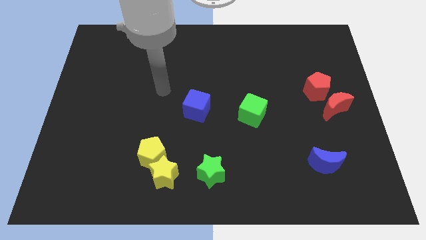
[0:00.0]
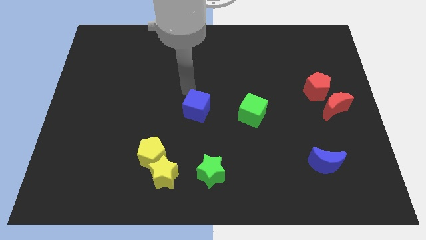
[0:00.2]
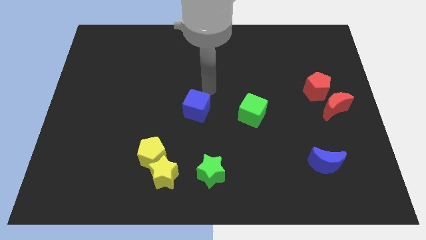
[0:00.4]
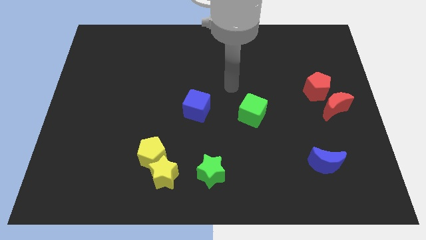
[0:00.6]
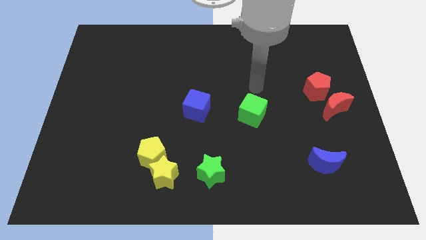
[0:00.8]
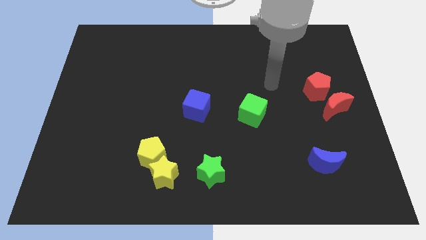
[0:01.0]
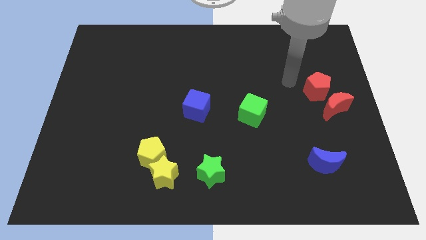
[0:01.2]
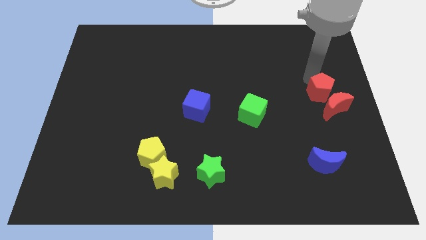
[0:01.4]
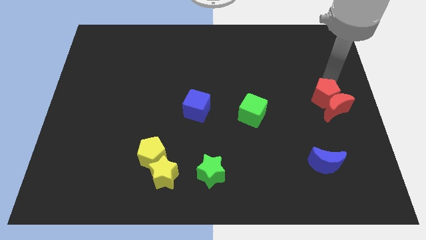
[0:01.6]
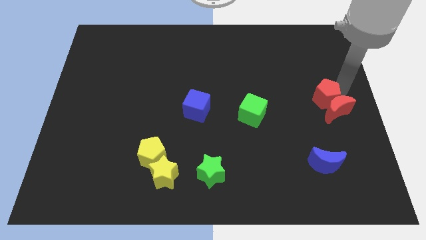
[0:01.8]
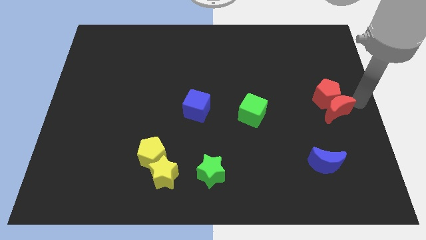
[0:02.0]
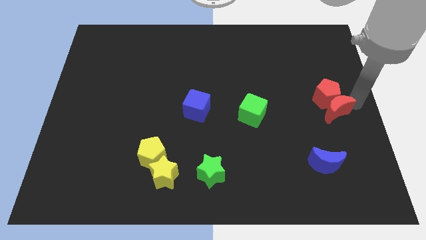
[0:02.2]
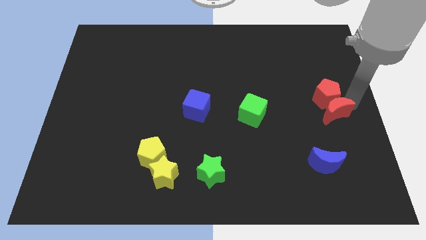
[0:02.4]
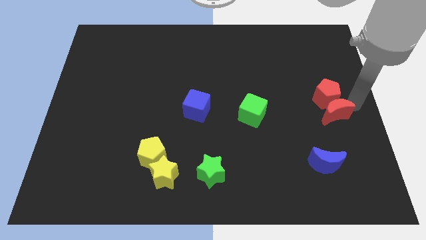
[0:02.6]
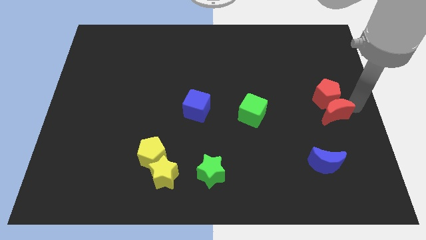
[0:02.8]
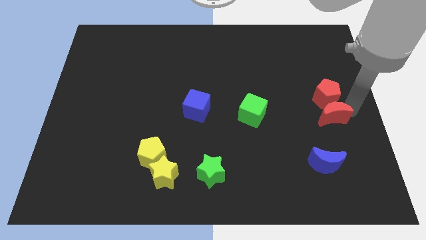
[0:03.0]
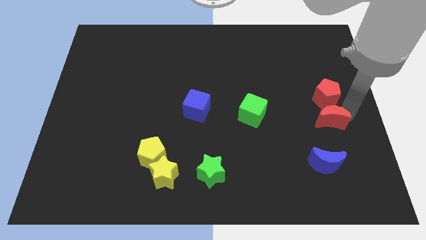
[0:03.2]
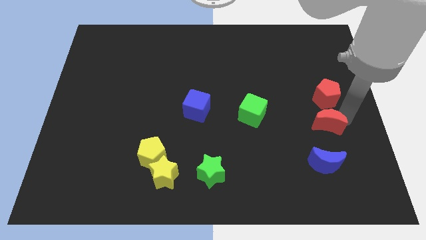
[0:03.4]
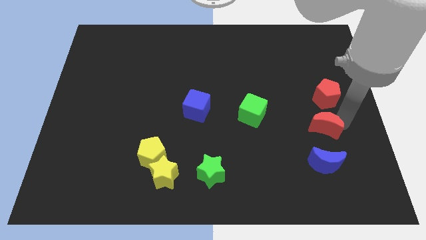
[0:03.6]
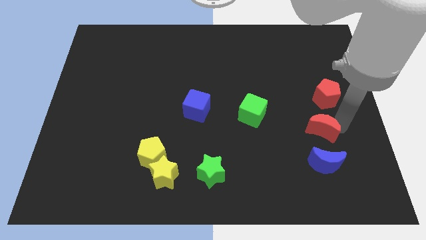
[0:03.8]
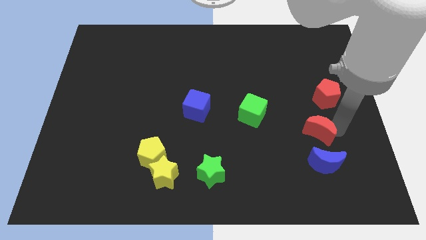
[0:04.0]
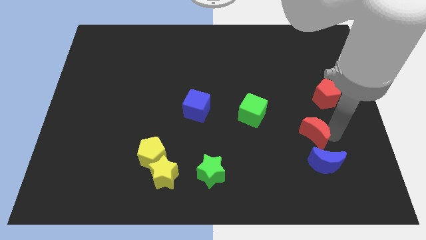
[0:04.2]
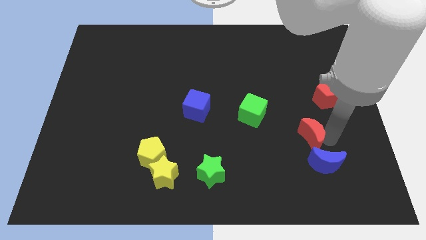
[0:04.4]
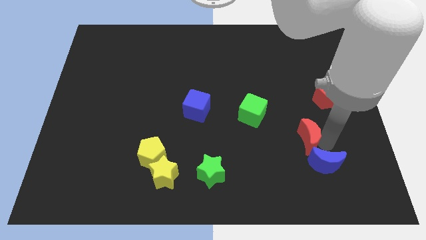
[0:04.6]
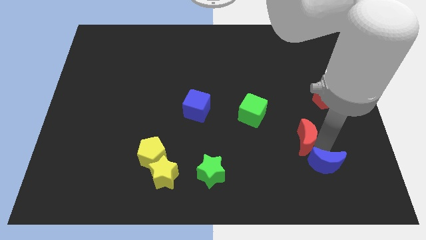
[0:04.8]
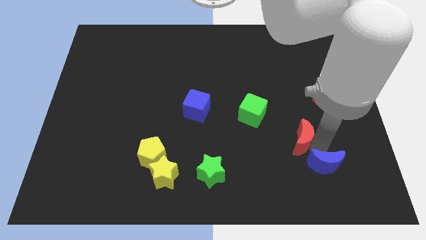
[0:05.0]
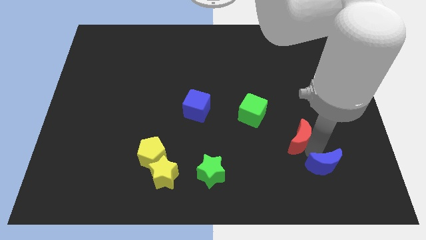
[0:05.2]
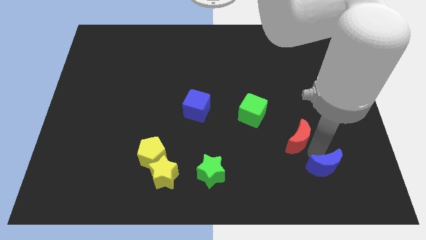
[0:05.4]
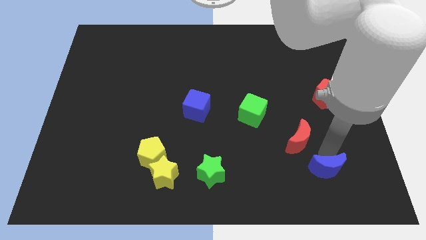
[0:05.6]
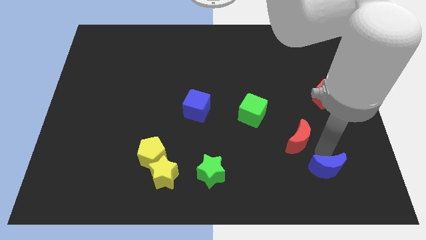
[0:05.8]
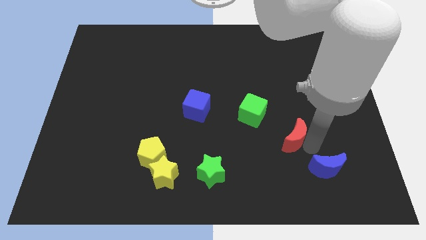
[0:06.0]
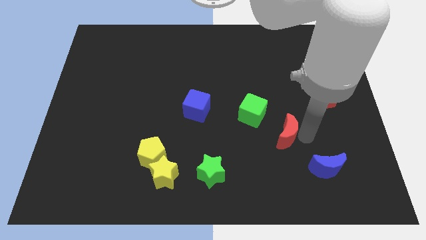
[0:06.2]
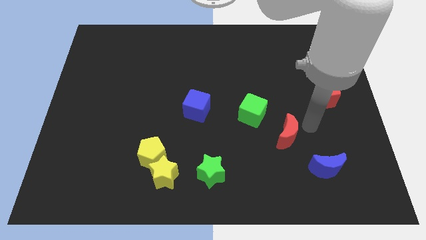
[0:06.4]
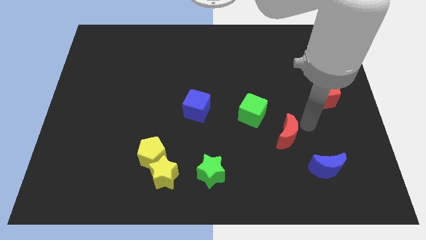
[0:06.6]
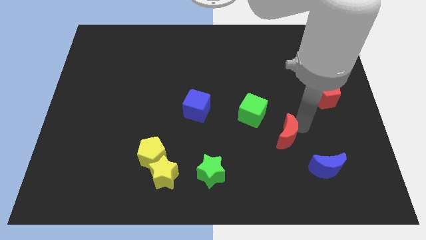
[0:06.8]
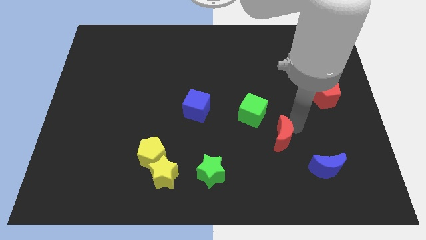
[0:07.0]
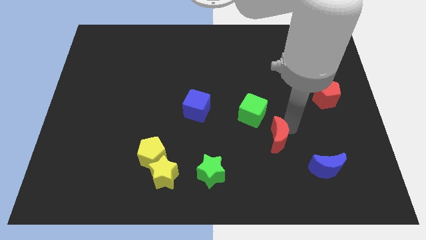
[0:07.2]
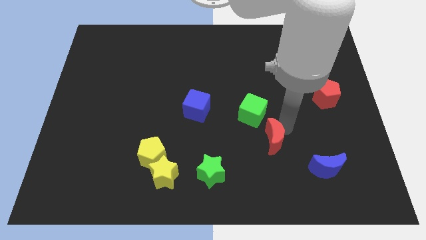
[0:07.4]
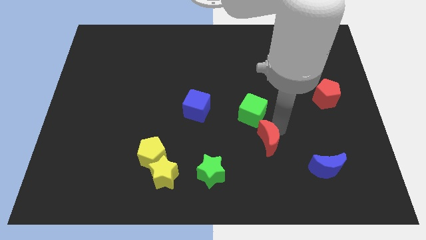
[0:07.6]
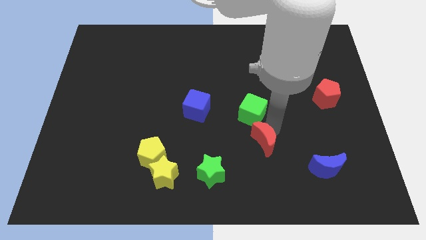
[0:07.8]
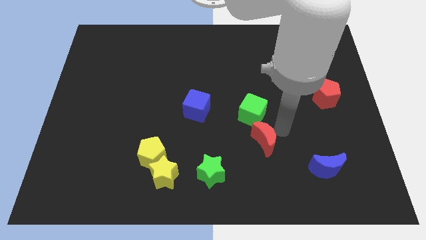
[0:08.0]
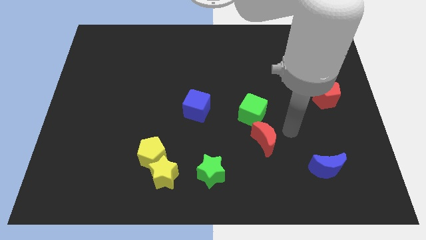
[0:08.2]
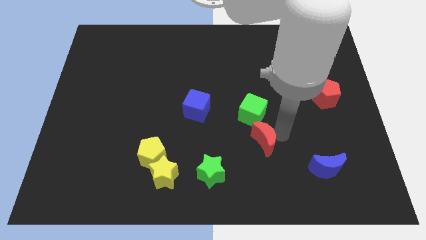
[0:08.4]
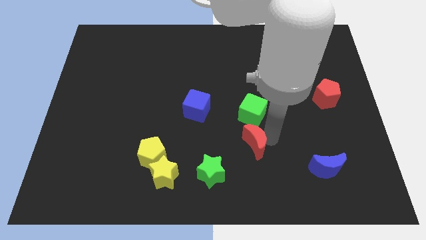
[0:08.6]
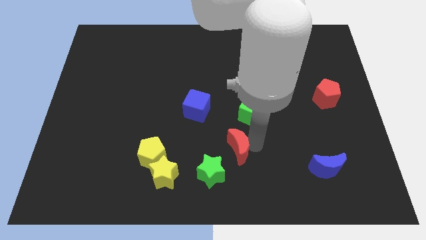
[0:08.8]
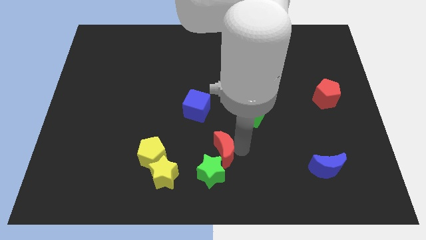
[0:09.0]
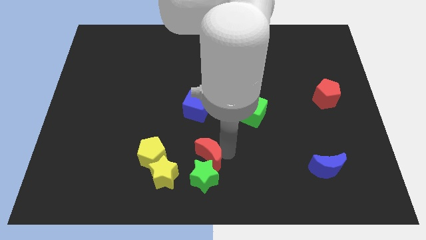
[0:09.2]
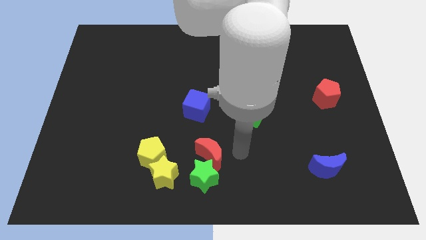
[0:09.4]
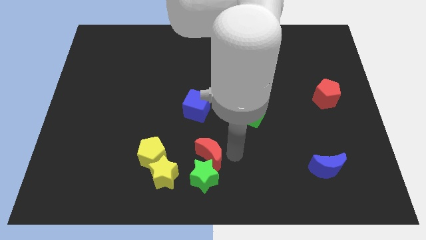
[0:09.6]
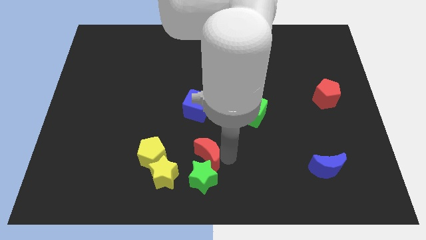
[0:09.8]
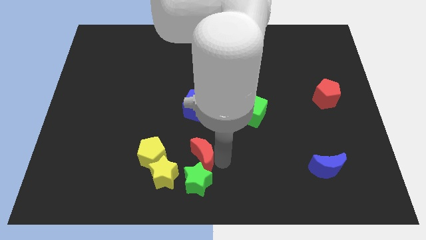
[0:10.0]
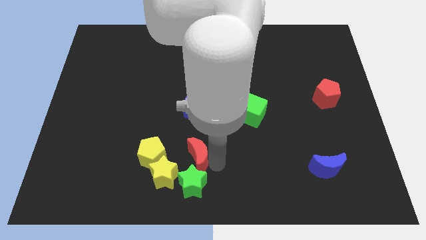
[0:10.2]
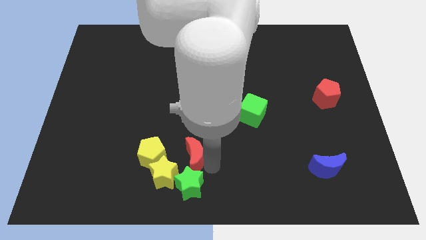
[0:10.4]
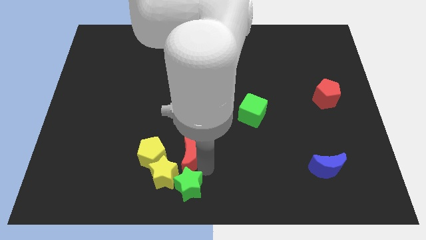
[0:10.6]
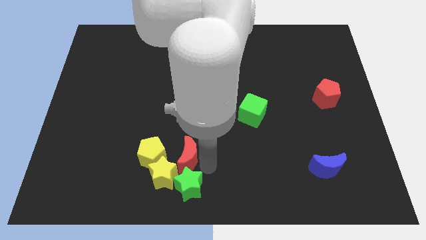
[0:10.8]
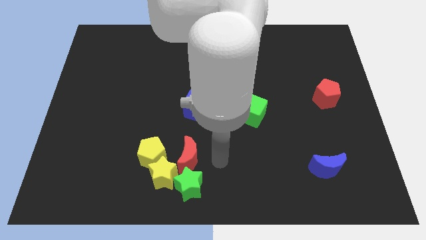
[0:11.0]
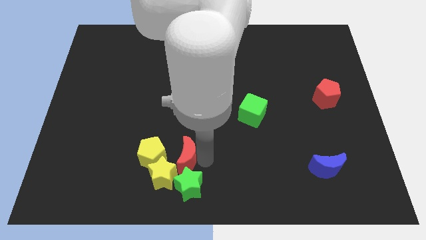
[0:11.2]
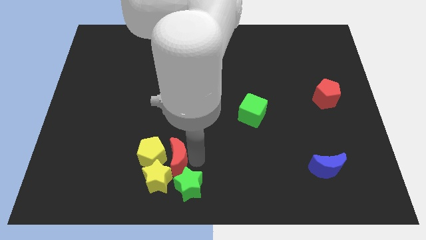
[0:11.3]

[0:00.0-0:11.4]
slide the red moon close to the yellow pentagon

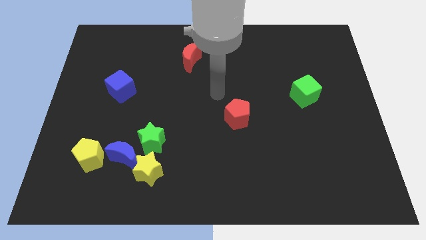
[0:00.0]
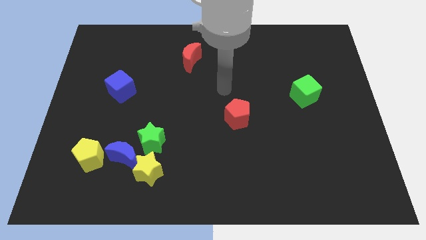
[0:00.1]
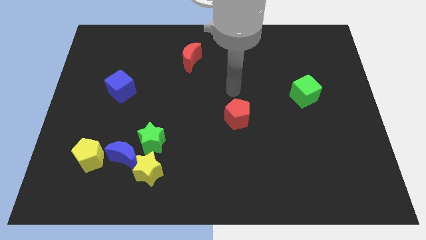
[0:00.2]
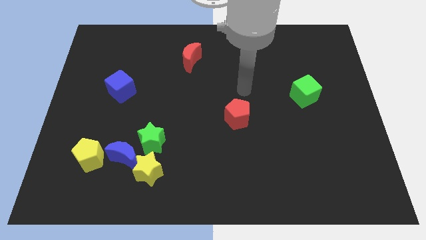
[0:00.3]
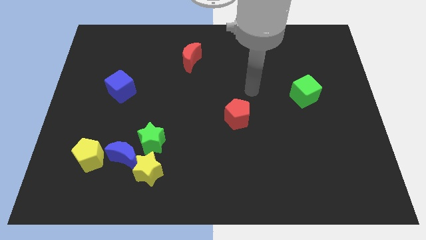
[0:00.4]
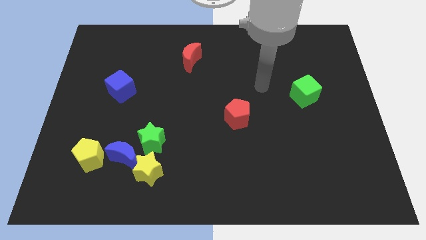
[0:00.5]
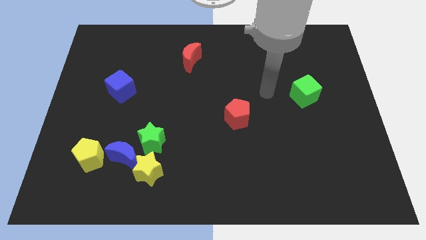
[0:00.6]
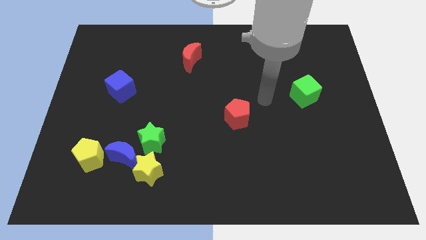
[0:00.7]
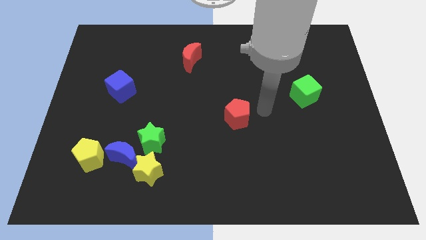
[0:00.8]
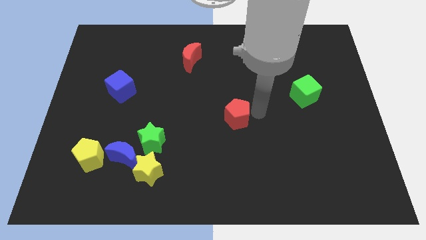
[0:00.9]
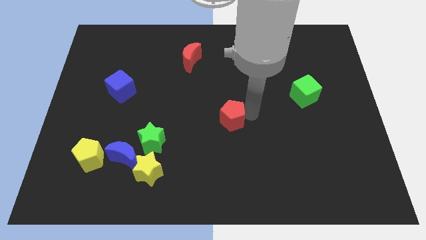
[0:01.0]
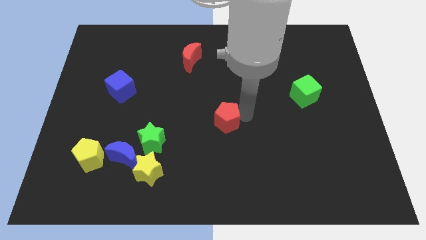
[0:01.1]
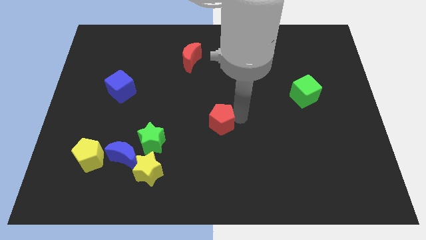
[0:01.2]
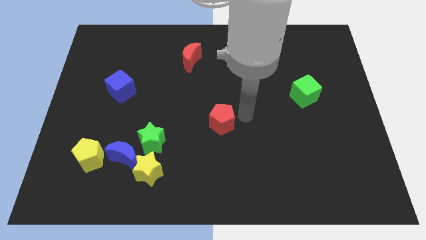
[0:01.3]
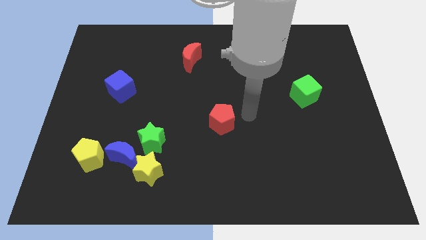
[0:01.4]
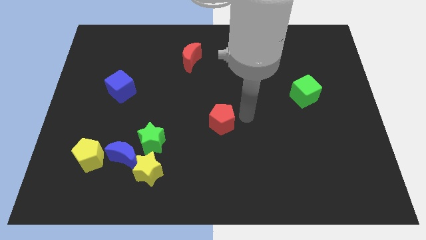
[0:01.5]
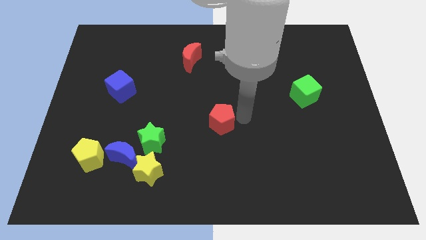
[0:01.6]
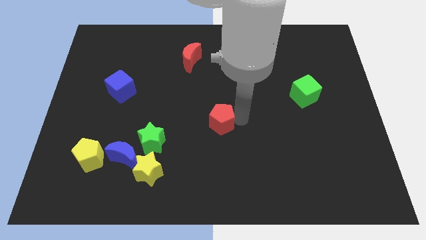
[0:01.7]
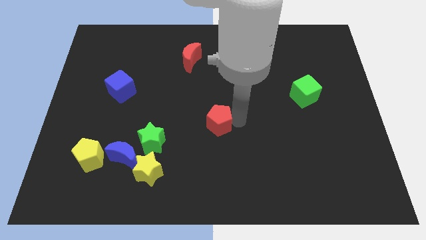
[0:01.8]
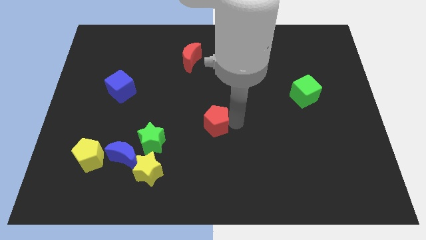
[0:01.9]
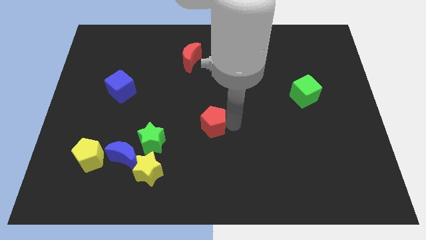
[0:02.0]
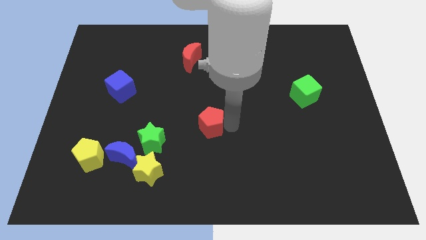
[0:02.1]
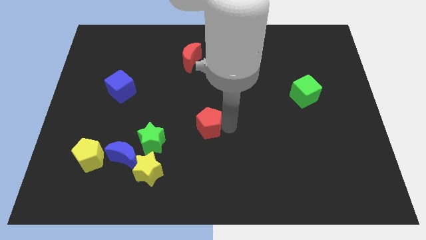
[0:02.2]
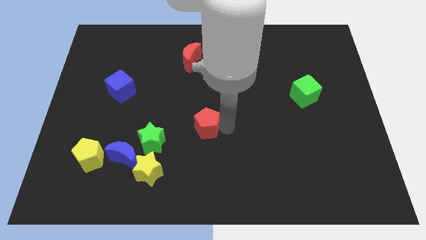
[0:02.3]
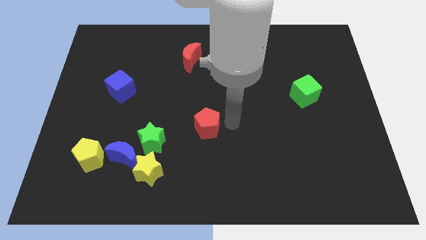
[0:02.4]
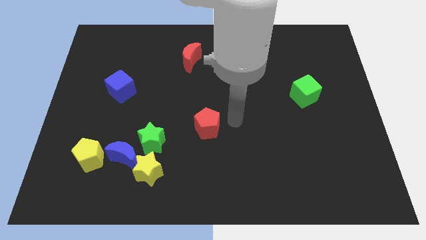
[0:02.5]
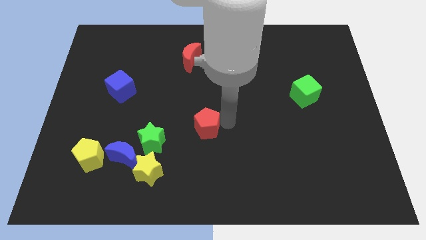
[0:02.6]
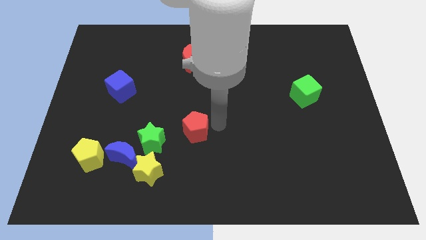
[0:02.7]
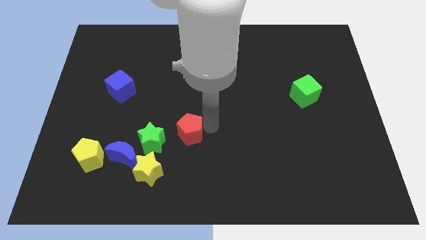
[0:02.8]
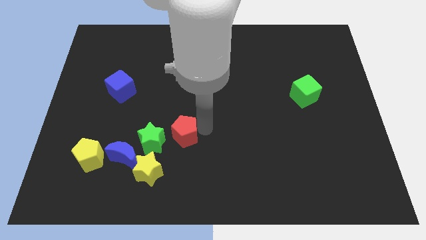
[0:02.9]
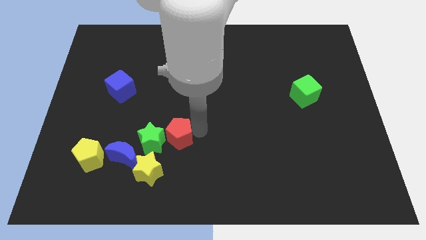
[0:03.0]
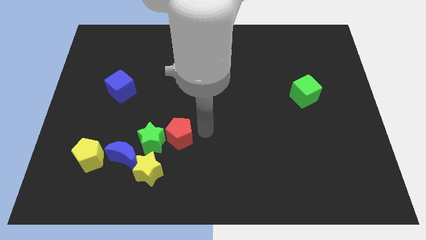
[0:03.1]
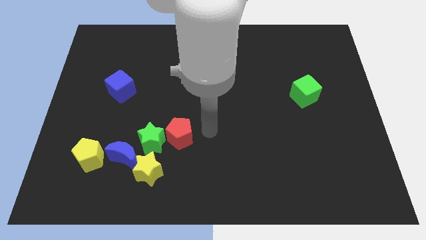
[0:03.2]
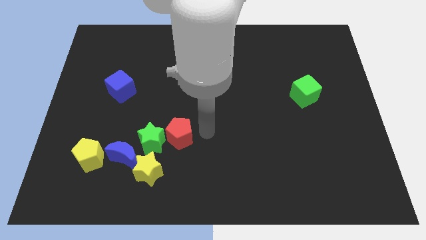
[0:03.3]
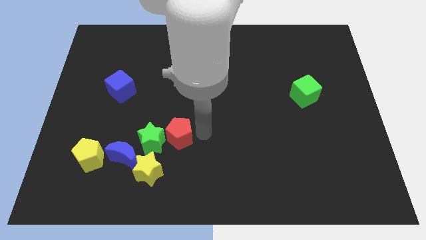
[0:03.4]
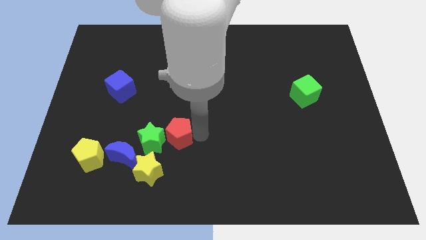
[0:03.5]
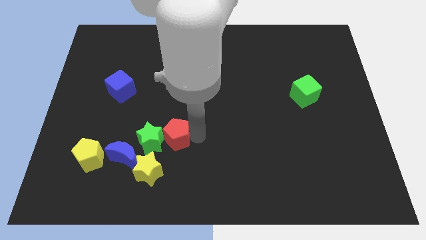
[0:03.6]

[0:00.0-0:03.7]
push the red pentagon next to the green star
